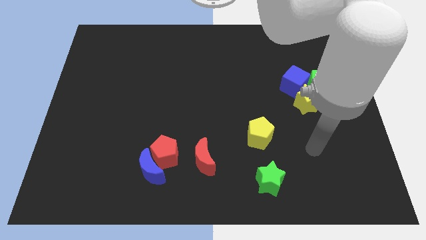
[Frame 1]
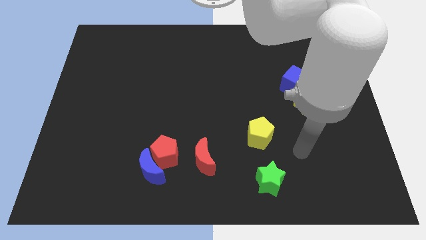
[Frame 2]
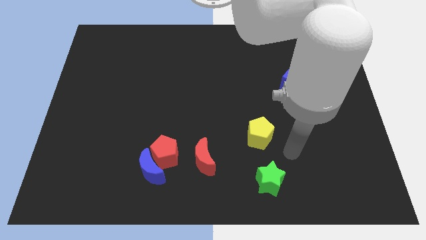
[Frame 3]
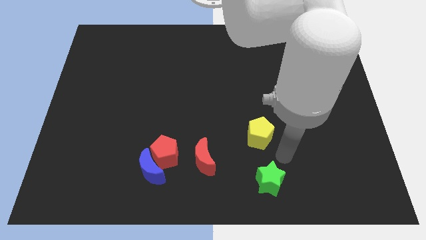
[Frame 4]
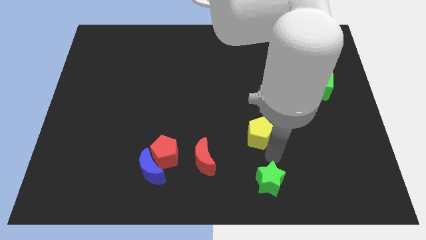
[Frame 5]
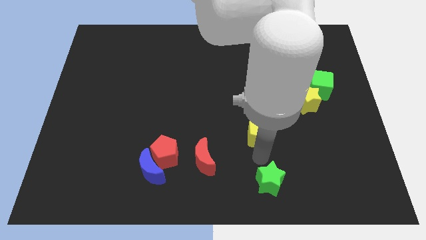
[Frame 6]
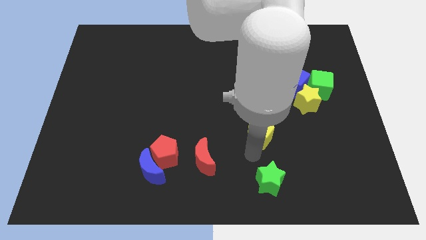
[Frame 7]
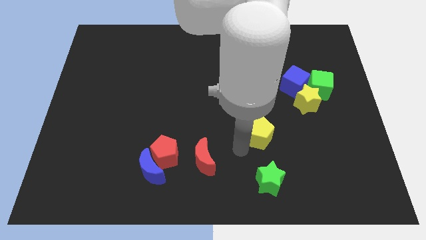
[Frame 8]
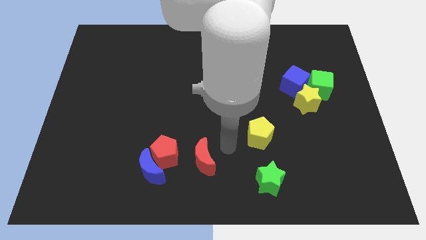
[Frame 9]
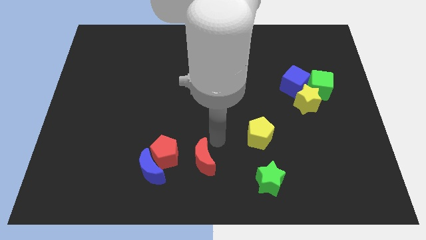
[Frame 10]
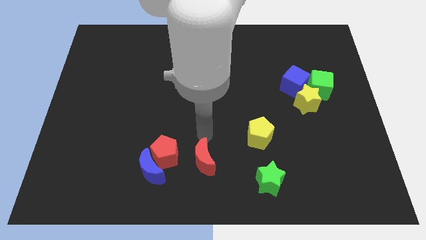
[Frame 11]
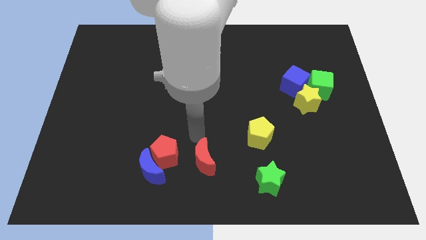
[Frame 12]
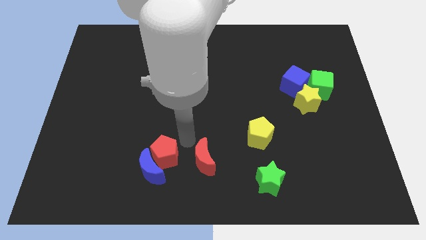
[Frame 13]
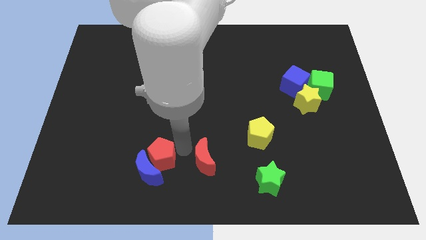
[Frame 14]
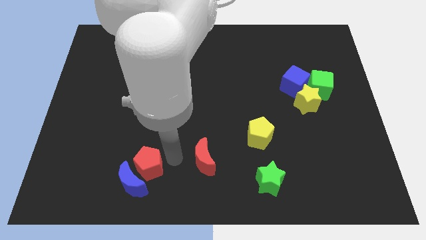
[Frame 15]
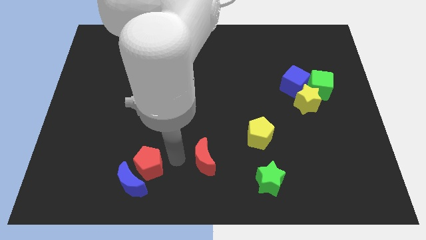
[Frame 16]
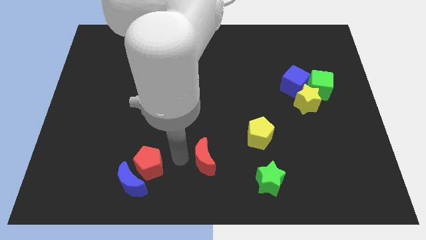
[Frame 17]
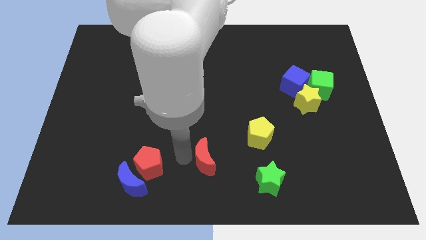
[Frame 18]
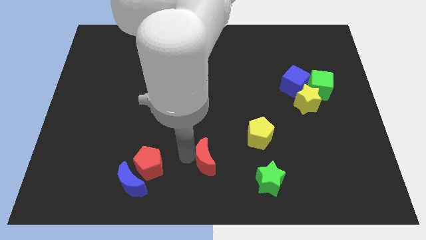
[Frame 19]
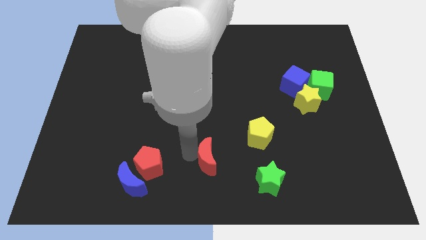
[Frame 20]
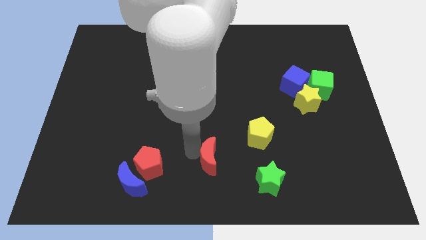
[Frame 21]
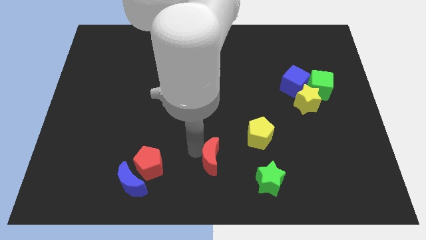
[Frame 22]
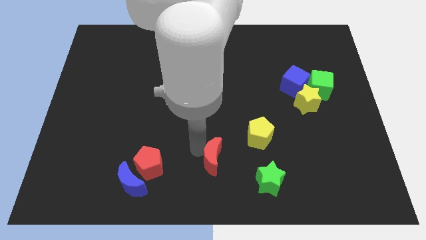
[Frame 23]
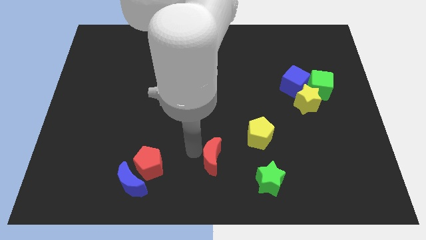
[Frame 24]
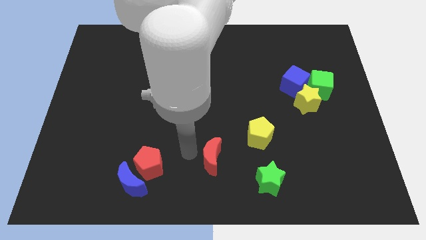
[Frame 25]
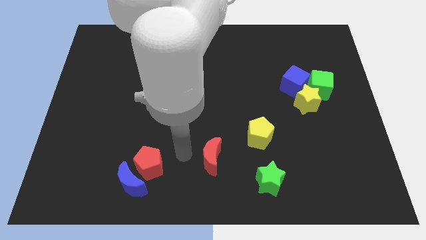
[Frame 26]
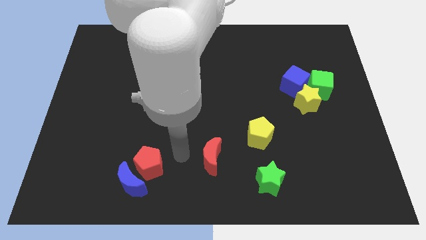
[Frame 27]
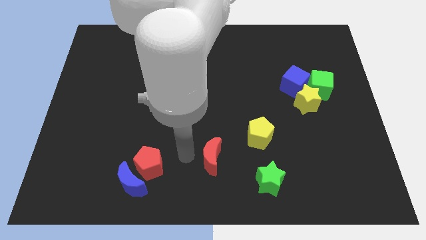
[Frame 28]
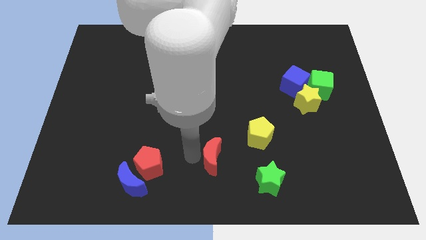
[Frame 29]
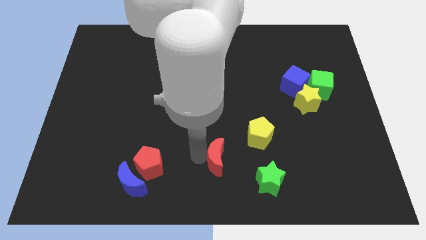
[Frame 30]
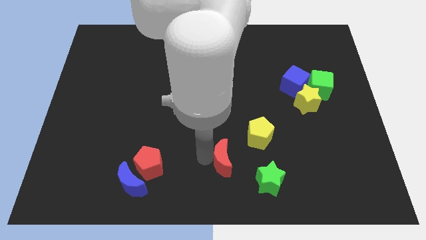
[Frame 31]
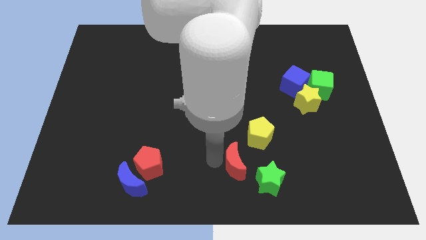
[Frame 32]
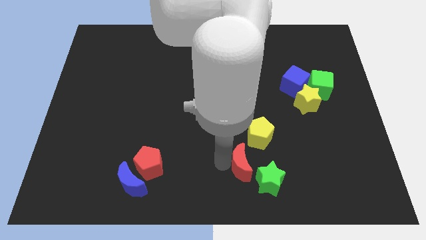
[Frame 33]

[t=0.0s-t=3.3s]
move the red moon to the right a little

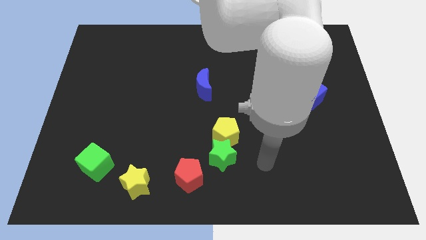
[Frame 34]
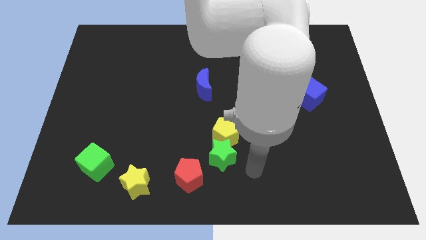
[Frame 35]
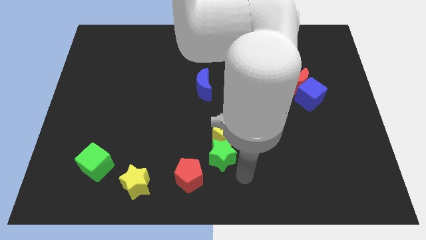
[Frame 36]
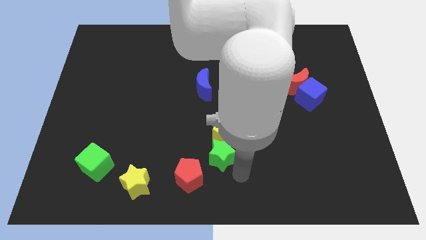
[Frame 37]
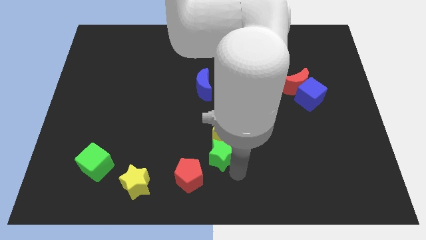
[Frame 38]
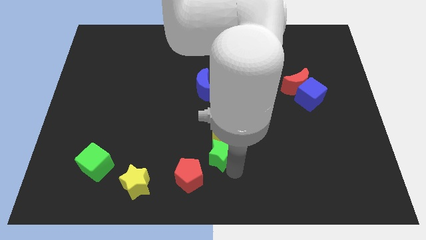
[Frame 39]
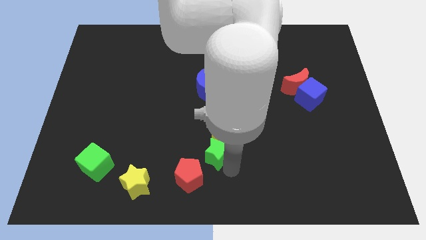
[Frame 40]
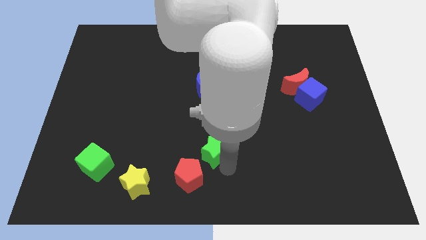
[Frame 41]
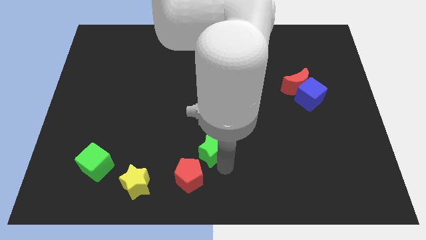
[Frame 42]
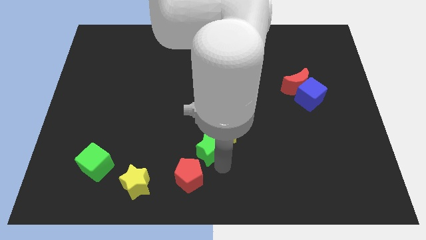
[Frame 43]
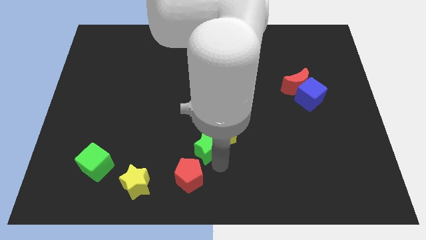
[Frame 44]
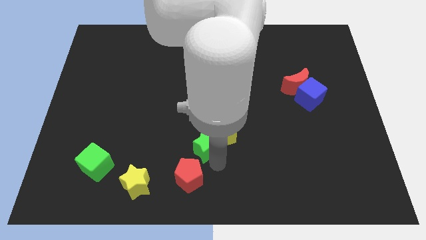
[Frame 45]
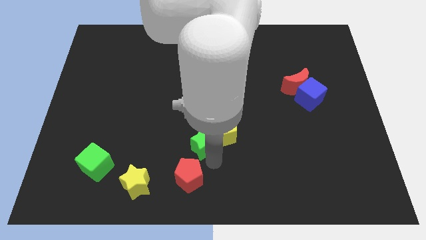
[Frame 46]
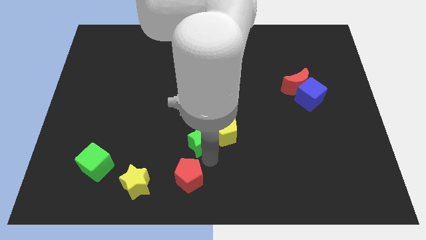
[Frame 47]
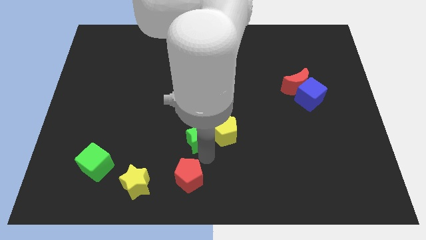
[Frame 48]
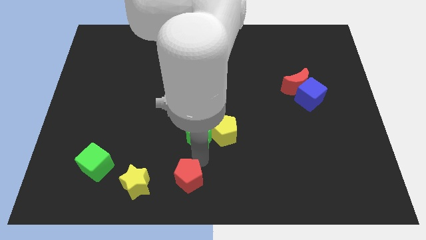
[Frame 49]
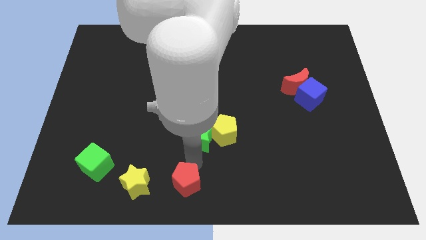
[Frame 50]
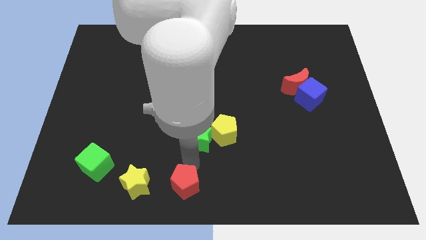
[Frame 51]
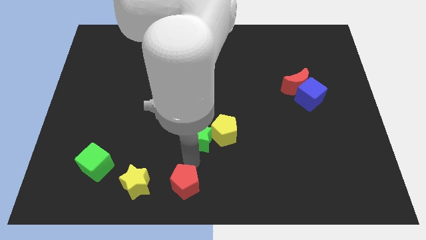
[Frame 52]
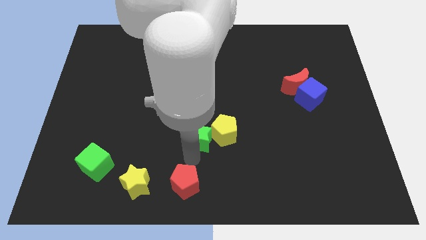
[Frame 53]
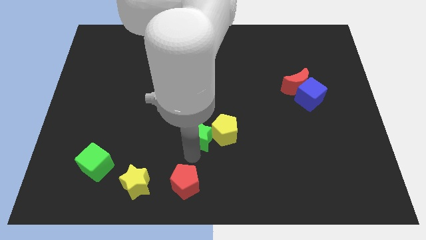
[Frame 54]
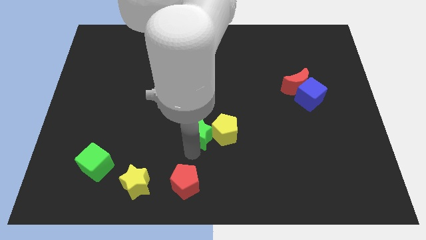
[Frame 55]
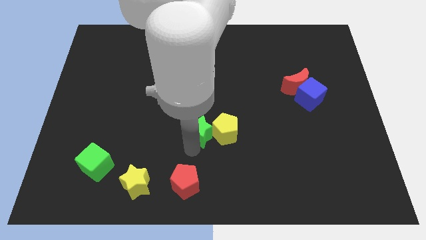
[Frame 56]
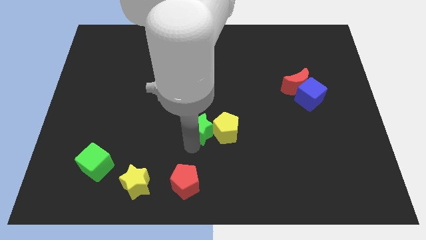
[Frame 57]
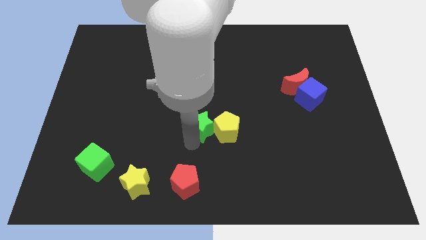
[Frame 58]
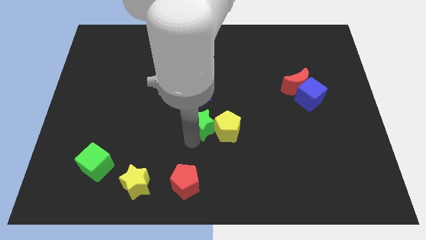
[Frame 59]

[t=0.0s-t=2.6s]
push the green star slightly upwards

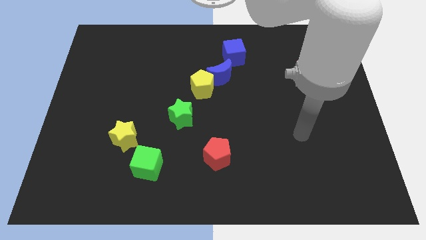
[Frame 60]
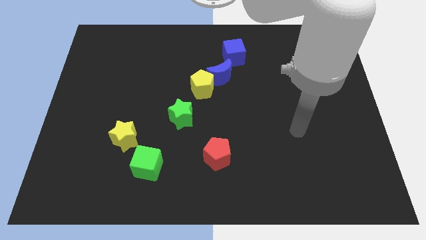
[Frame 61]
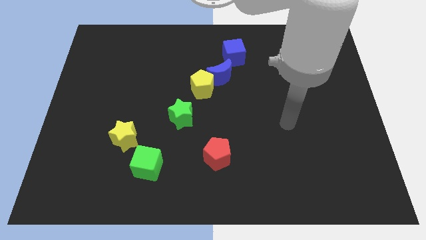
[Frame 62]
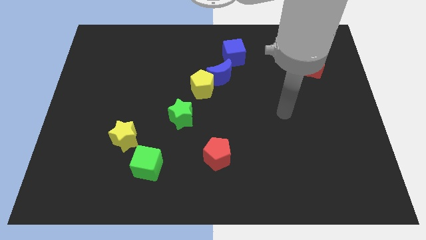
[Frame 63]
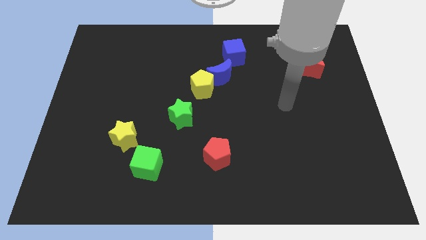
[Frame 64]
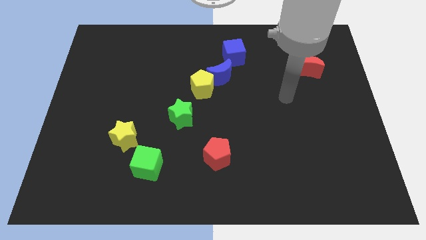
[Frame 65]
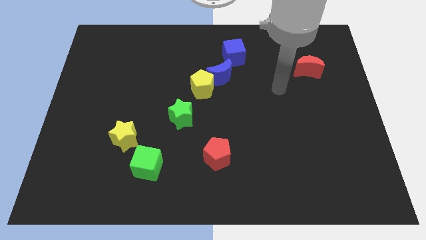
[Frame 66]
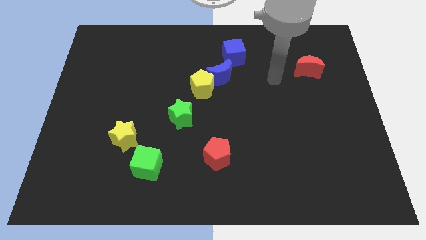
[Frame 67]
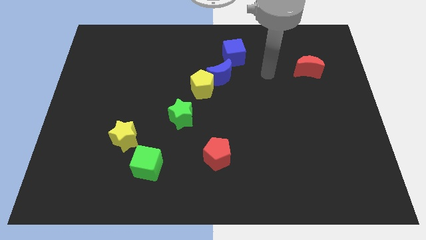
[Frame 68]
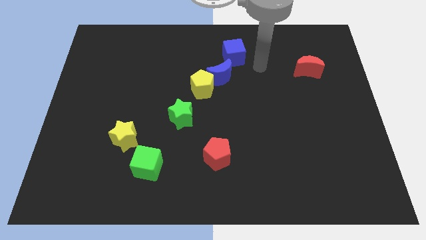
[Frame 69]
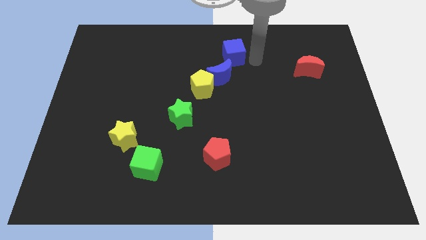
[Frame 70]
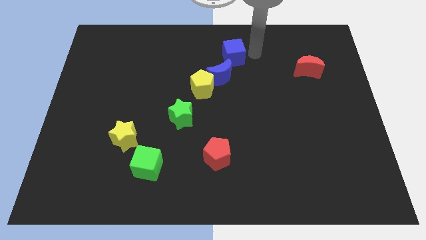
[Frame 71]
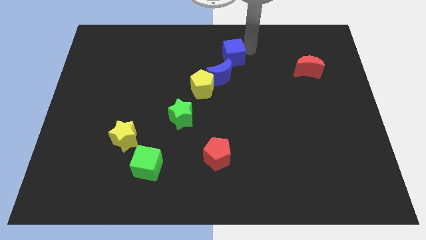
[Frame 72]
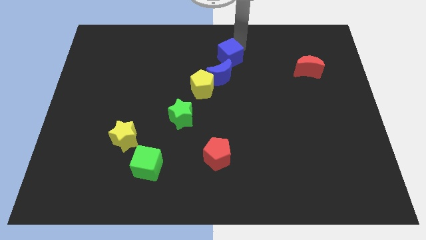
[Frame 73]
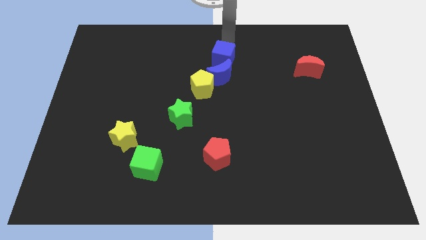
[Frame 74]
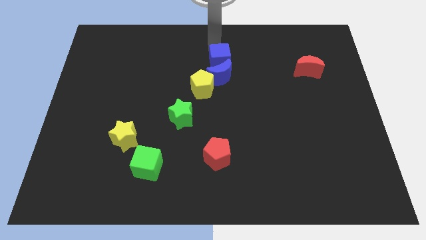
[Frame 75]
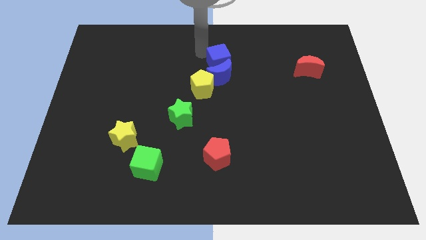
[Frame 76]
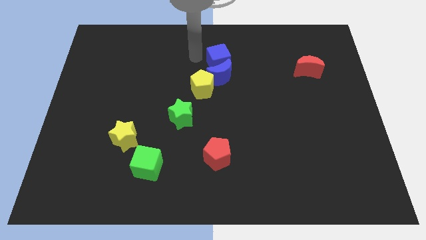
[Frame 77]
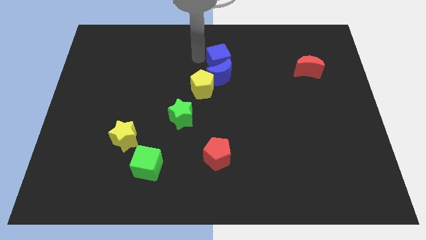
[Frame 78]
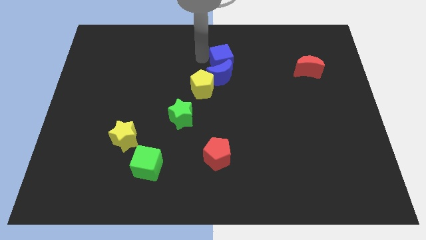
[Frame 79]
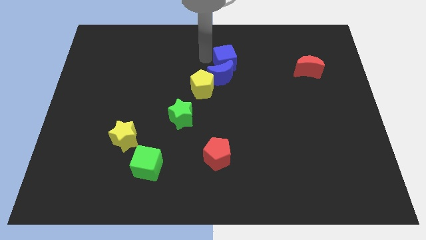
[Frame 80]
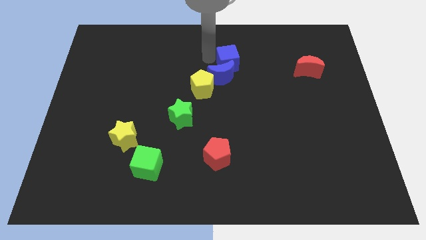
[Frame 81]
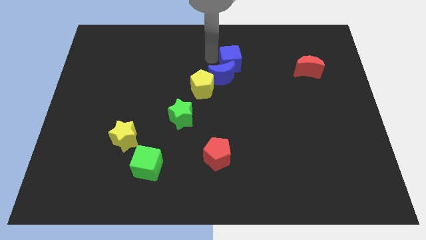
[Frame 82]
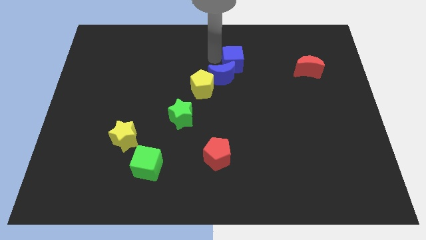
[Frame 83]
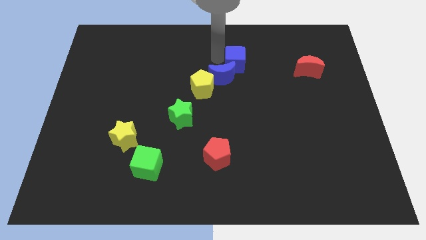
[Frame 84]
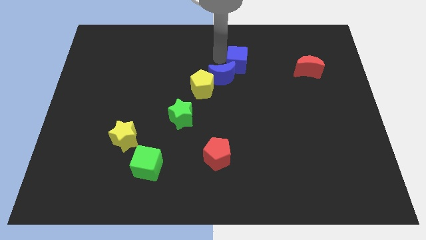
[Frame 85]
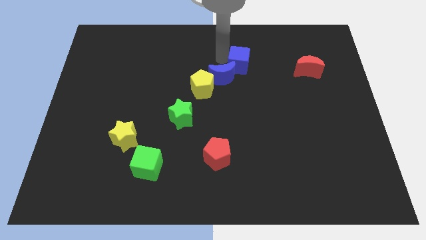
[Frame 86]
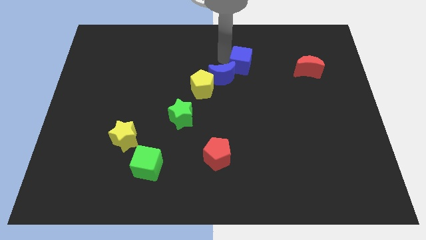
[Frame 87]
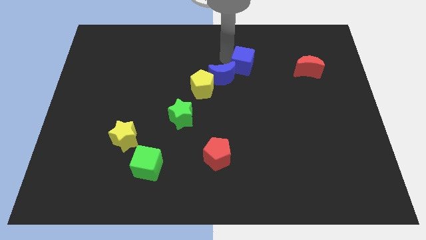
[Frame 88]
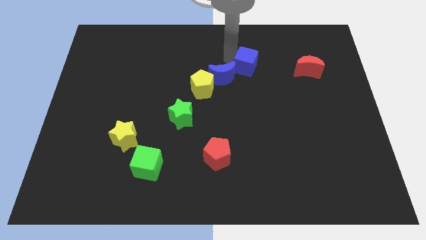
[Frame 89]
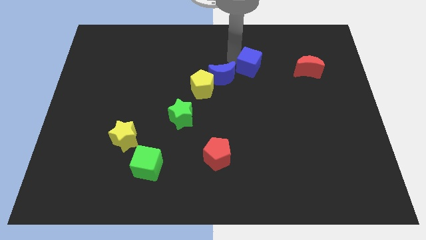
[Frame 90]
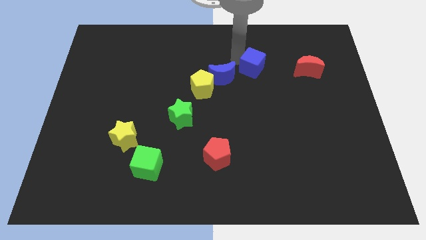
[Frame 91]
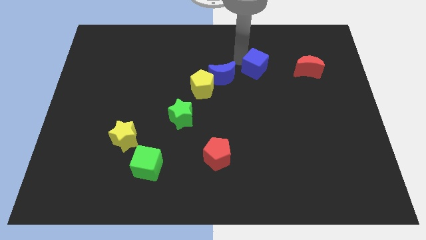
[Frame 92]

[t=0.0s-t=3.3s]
push the blue cube somewhat downwards and right diagonally
